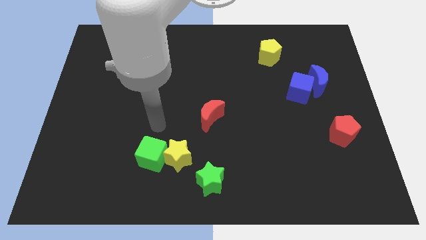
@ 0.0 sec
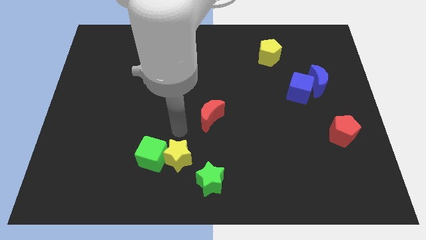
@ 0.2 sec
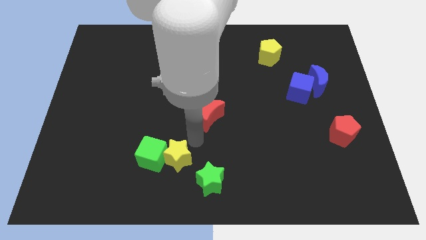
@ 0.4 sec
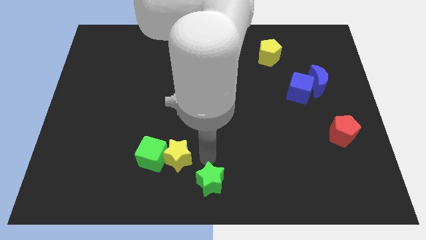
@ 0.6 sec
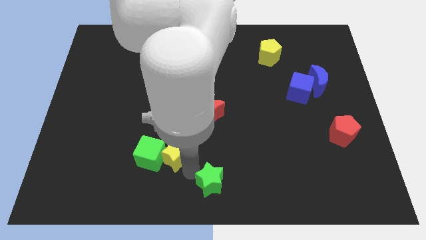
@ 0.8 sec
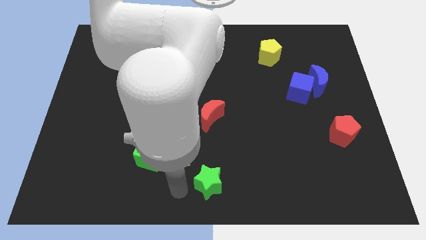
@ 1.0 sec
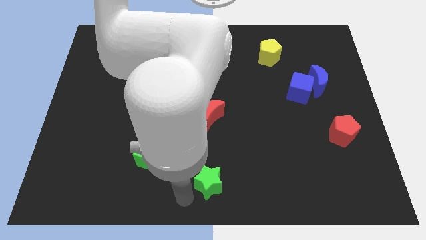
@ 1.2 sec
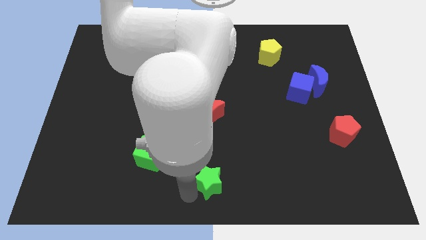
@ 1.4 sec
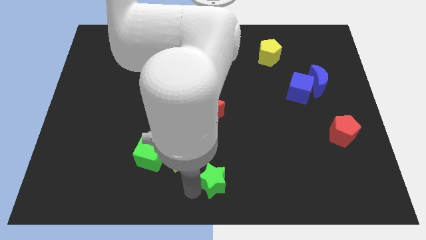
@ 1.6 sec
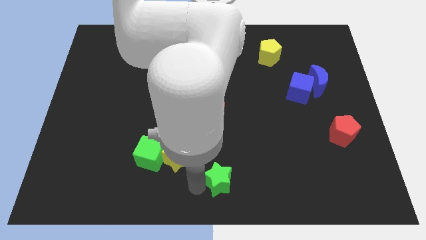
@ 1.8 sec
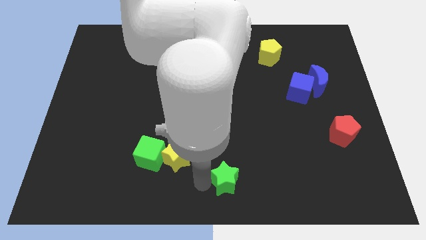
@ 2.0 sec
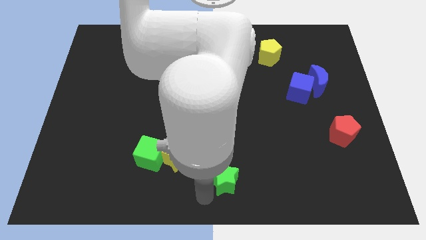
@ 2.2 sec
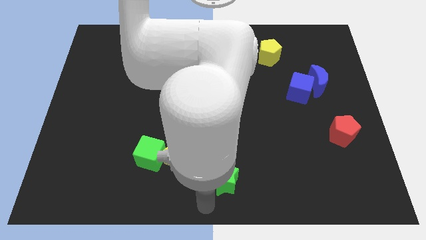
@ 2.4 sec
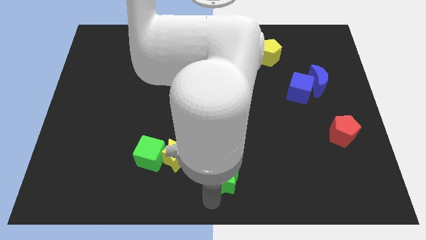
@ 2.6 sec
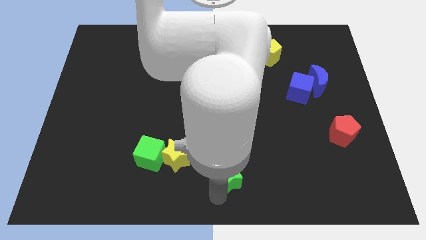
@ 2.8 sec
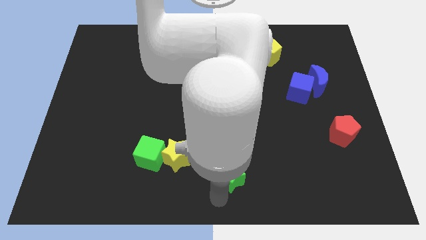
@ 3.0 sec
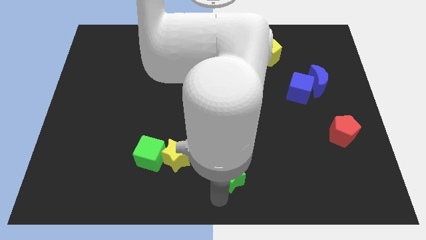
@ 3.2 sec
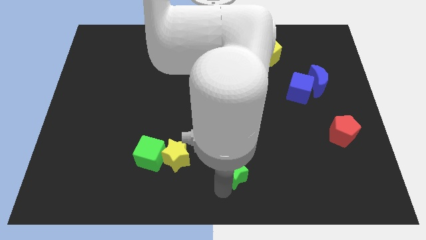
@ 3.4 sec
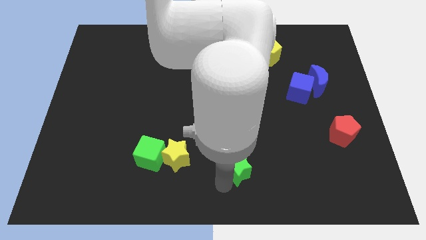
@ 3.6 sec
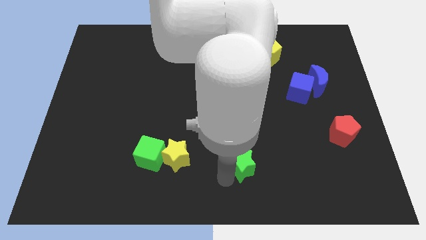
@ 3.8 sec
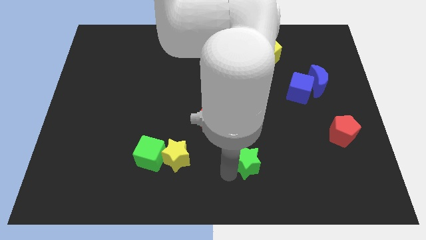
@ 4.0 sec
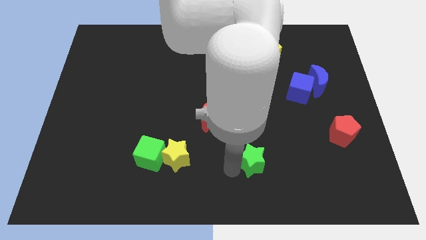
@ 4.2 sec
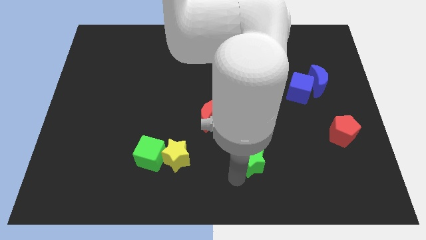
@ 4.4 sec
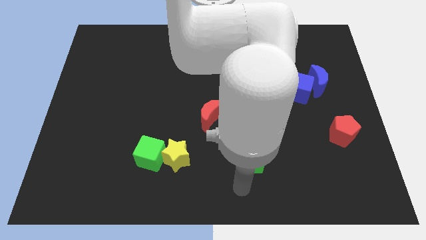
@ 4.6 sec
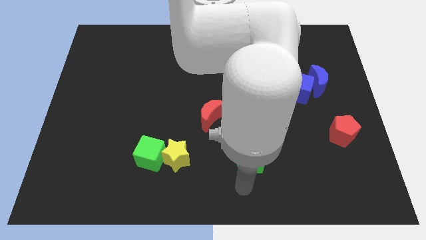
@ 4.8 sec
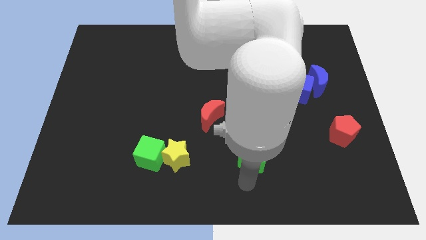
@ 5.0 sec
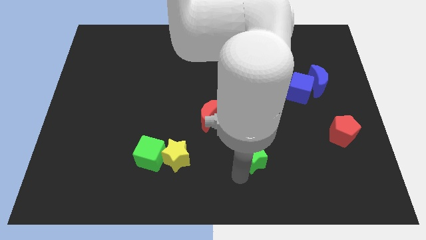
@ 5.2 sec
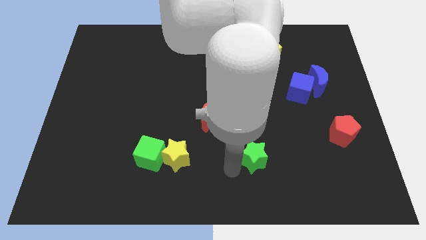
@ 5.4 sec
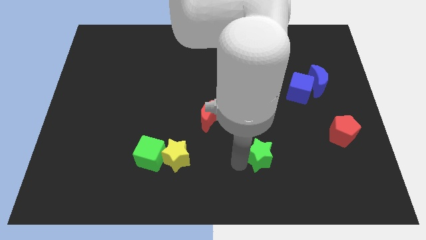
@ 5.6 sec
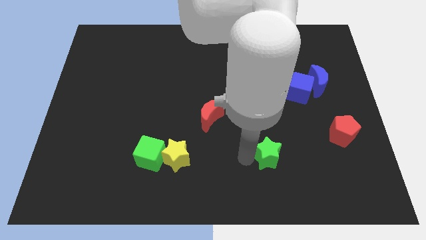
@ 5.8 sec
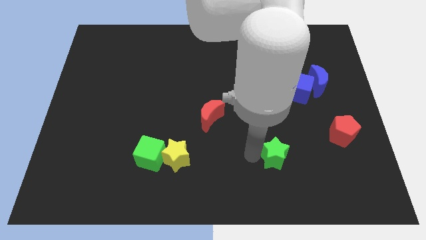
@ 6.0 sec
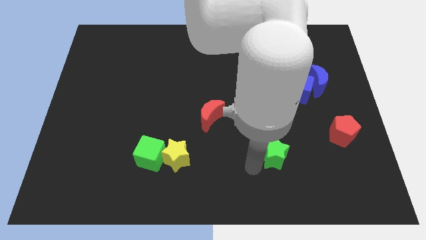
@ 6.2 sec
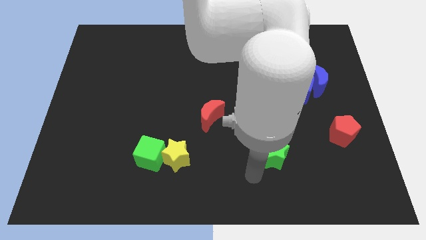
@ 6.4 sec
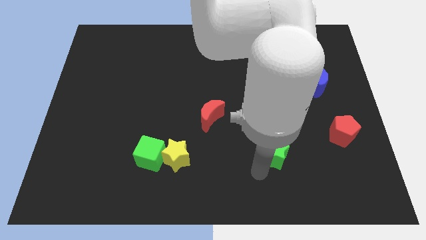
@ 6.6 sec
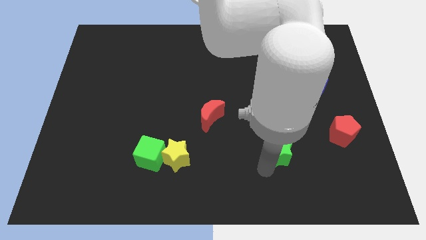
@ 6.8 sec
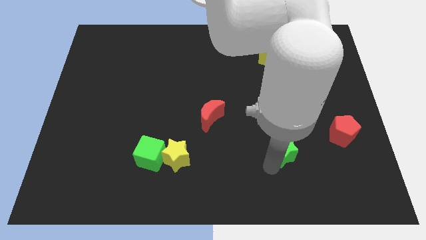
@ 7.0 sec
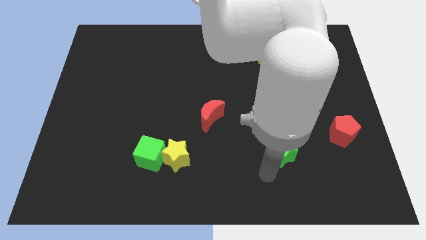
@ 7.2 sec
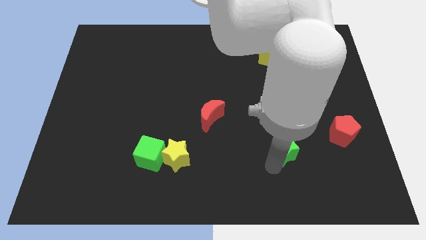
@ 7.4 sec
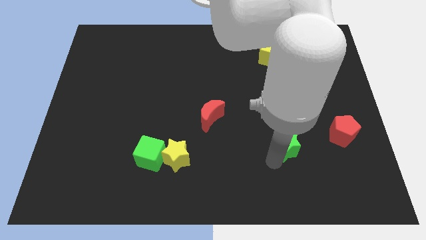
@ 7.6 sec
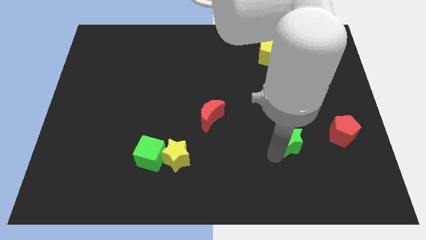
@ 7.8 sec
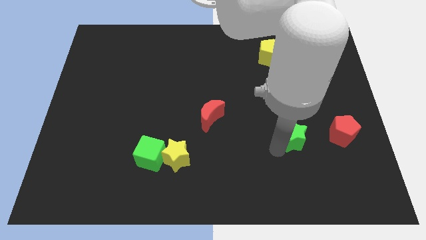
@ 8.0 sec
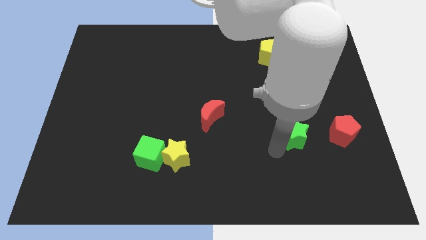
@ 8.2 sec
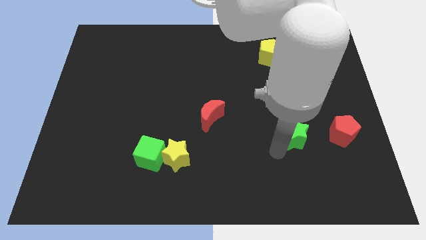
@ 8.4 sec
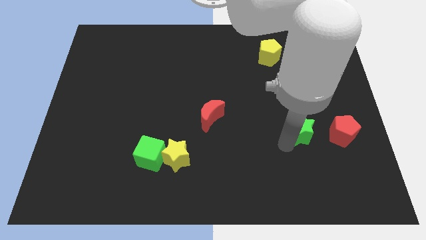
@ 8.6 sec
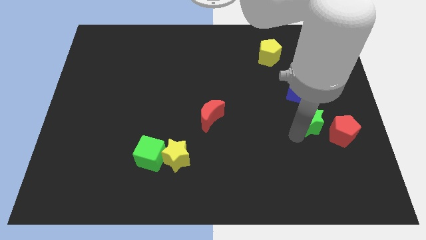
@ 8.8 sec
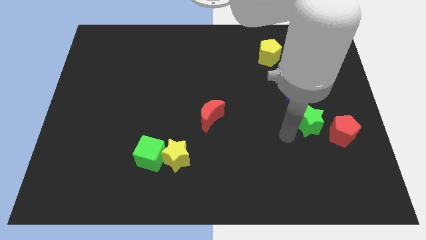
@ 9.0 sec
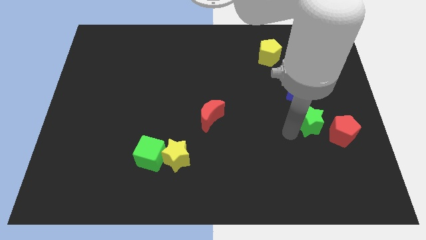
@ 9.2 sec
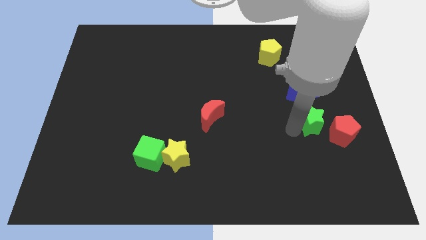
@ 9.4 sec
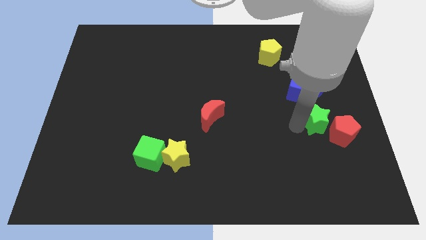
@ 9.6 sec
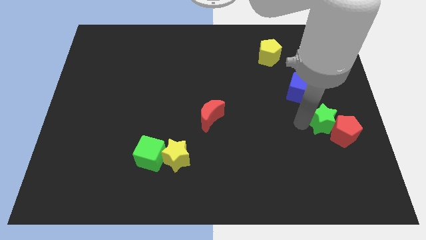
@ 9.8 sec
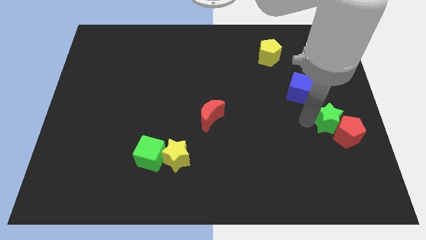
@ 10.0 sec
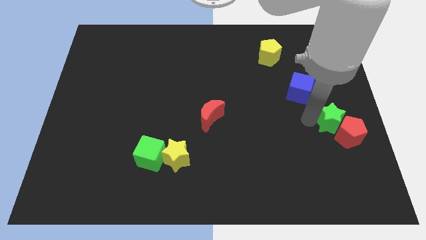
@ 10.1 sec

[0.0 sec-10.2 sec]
move the green star to the center right

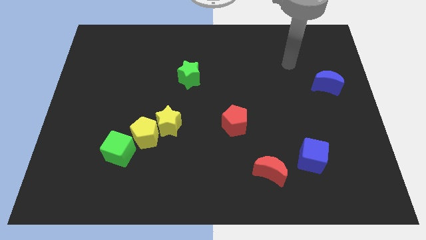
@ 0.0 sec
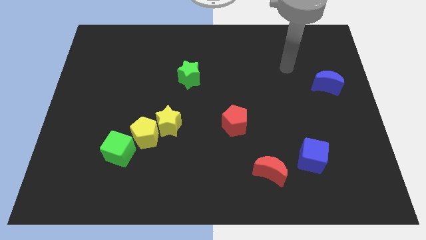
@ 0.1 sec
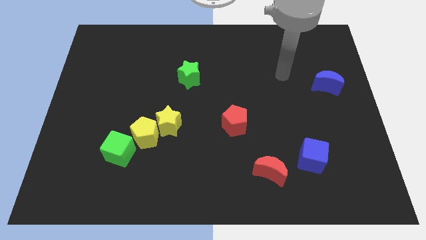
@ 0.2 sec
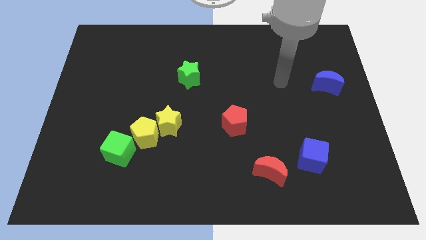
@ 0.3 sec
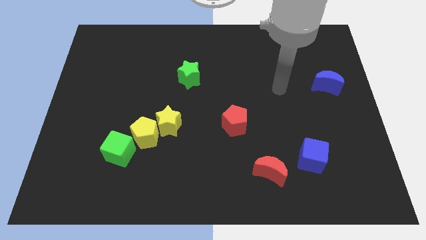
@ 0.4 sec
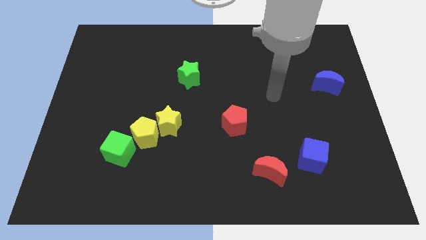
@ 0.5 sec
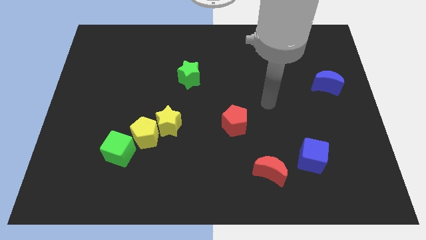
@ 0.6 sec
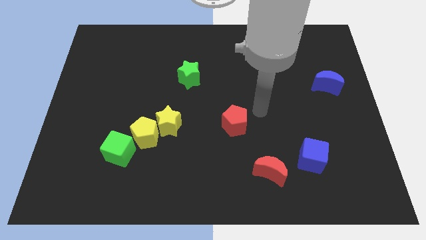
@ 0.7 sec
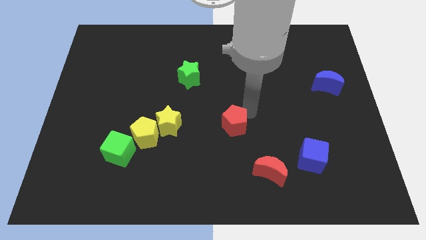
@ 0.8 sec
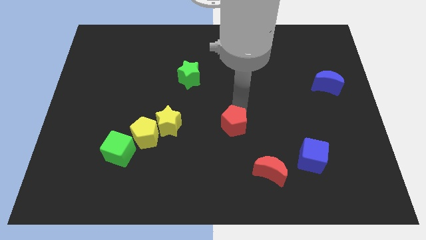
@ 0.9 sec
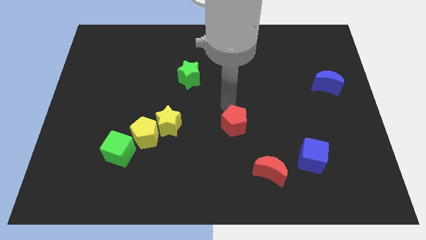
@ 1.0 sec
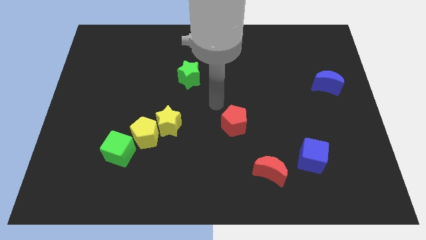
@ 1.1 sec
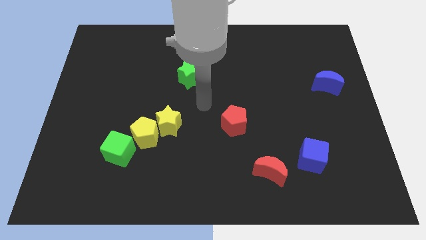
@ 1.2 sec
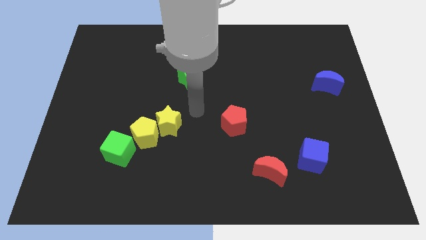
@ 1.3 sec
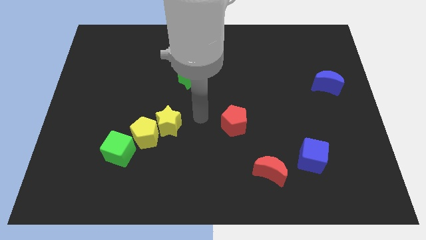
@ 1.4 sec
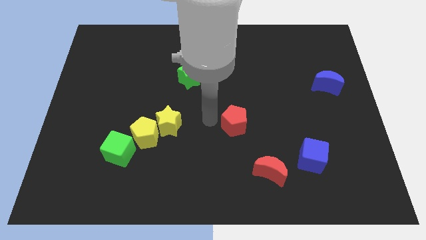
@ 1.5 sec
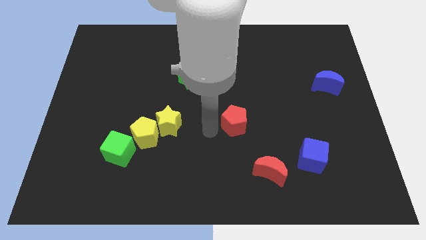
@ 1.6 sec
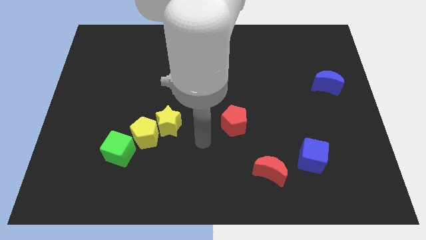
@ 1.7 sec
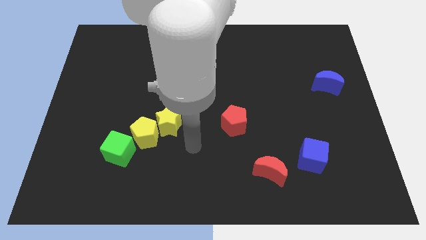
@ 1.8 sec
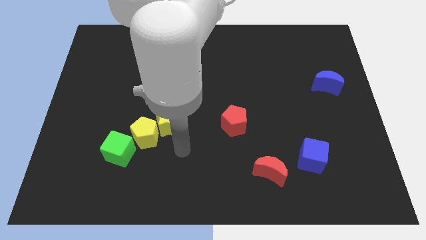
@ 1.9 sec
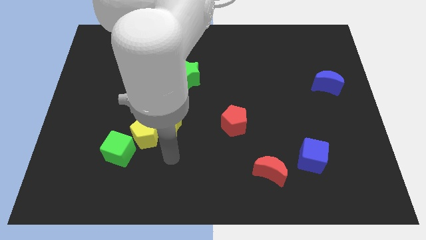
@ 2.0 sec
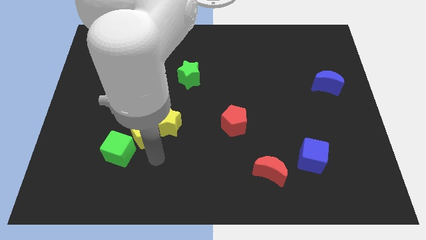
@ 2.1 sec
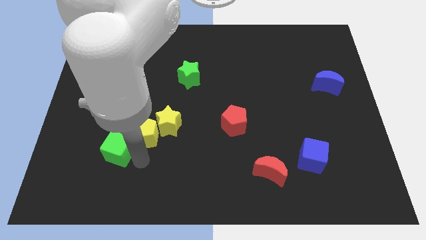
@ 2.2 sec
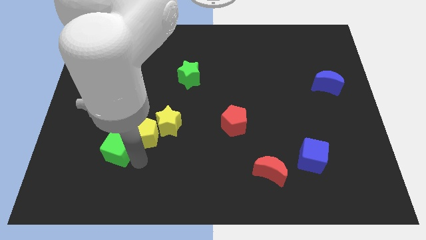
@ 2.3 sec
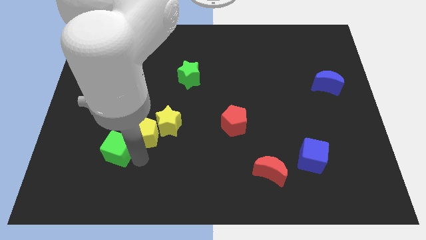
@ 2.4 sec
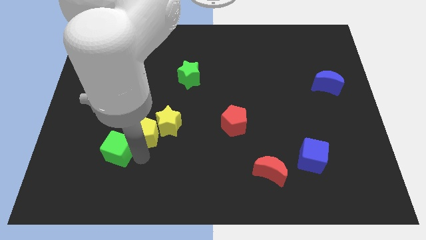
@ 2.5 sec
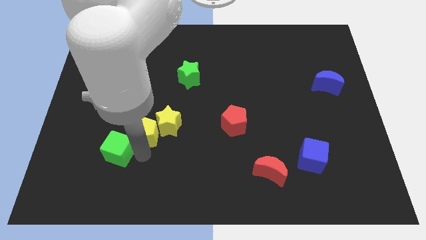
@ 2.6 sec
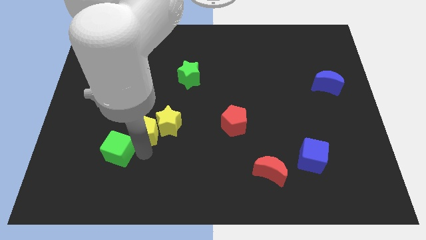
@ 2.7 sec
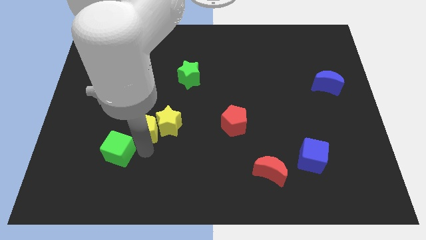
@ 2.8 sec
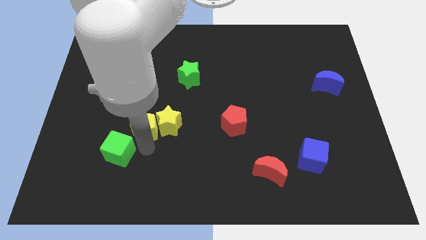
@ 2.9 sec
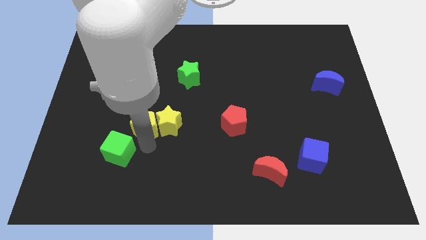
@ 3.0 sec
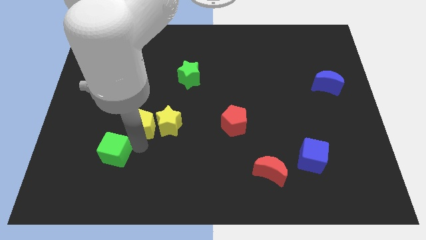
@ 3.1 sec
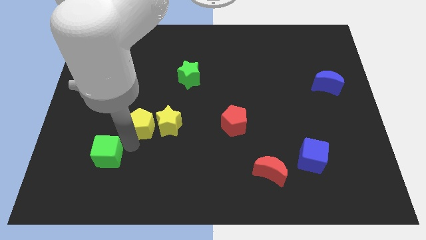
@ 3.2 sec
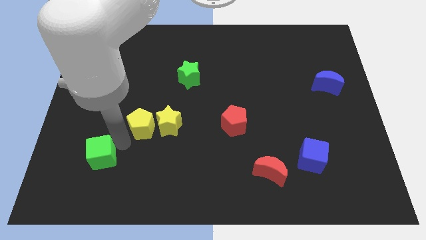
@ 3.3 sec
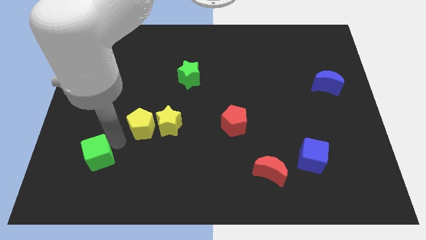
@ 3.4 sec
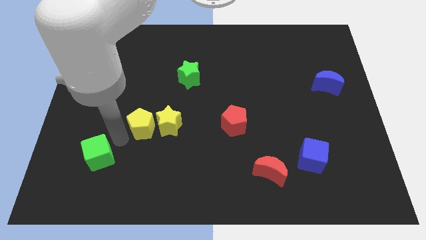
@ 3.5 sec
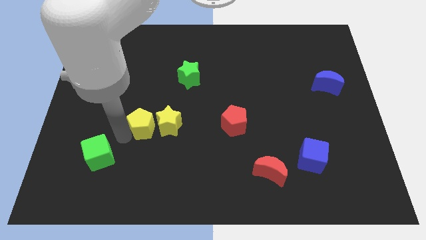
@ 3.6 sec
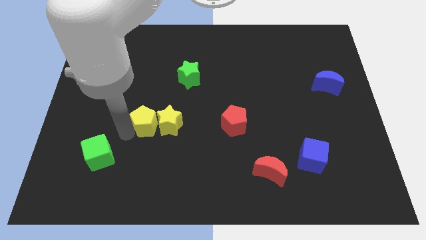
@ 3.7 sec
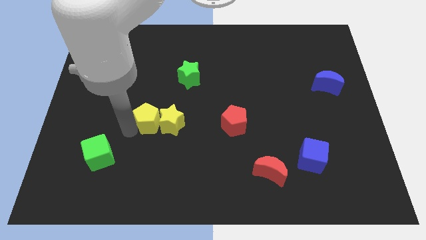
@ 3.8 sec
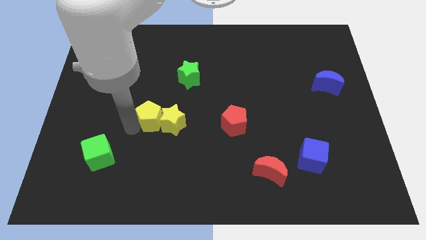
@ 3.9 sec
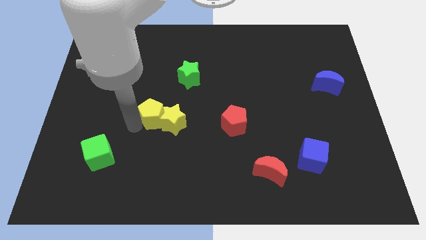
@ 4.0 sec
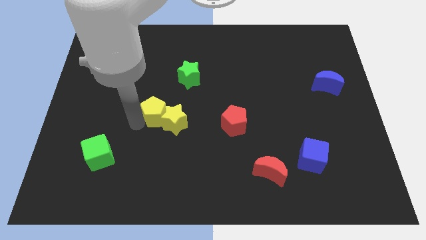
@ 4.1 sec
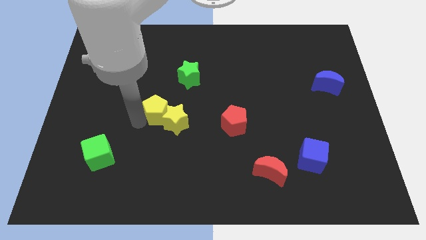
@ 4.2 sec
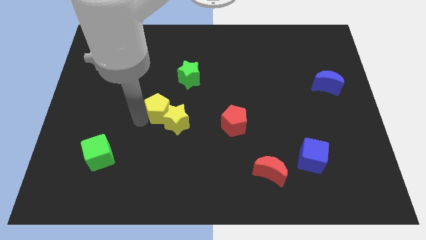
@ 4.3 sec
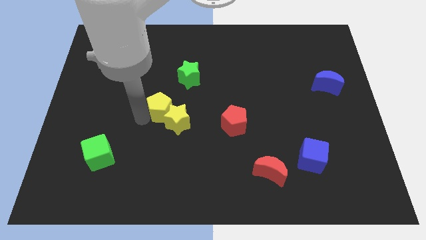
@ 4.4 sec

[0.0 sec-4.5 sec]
push the yellow pentagon to the center
